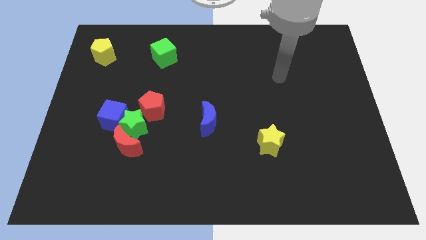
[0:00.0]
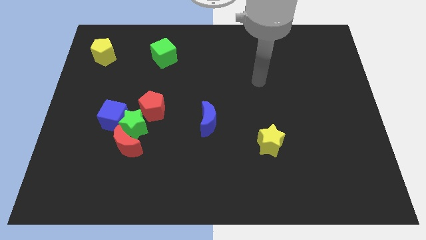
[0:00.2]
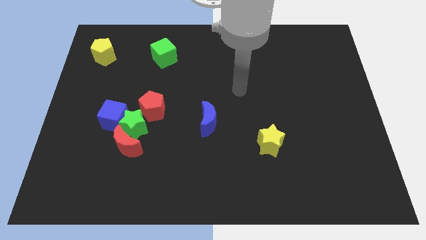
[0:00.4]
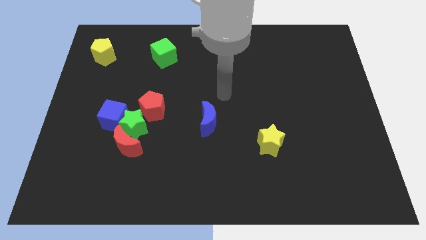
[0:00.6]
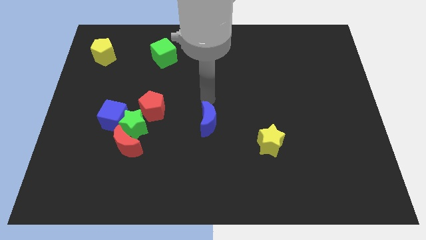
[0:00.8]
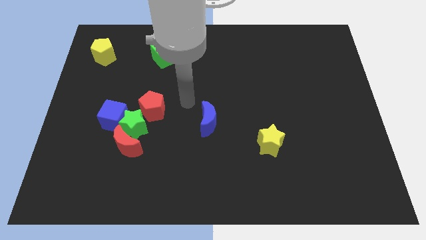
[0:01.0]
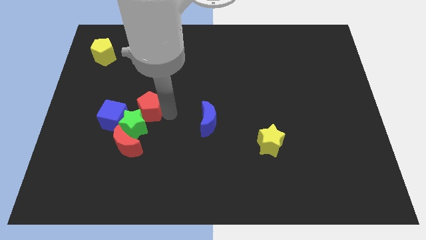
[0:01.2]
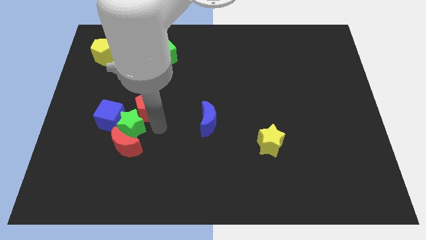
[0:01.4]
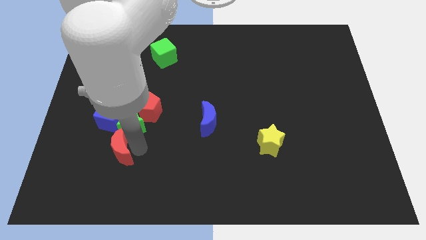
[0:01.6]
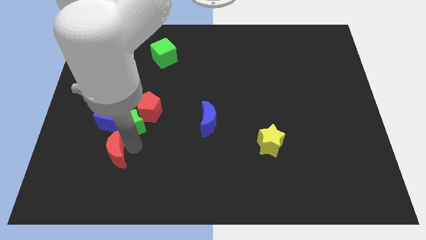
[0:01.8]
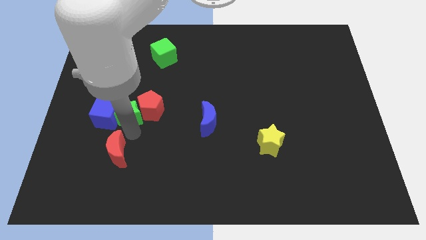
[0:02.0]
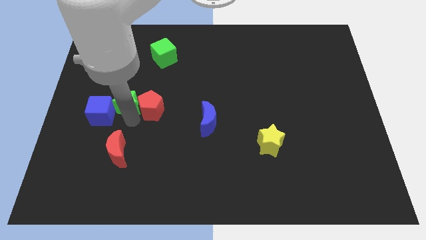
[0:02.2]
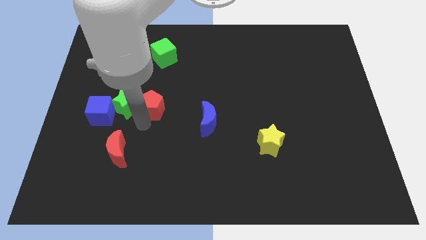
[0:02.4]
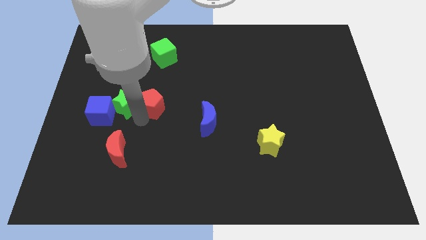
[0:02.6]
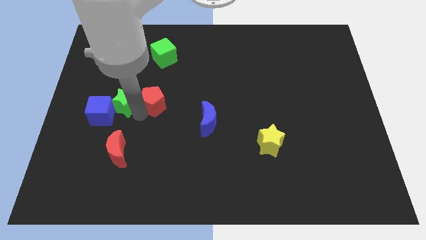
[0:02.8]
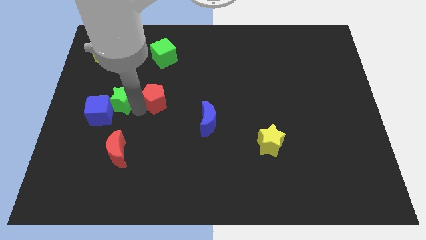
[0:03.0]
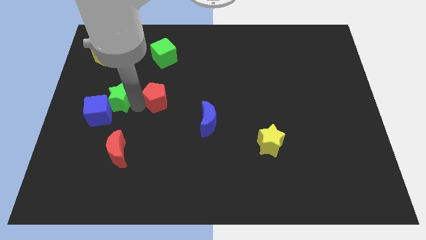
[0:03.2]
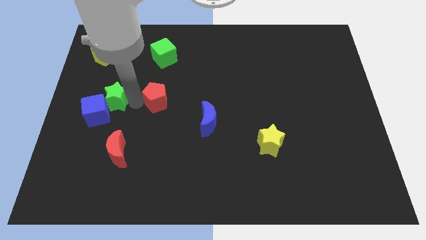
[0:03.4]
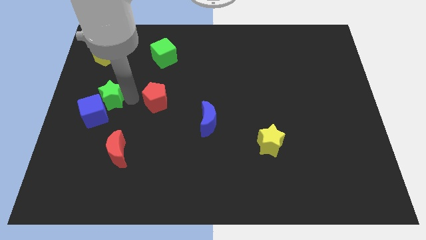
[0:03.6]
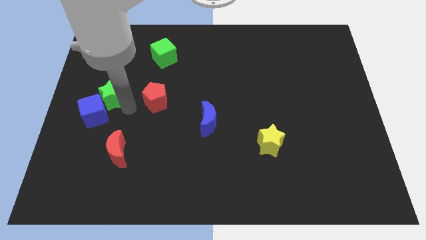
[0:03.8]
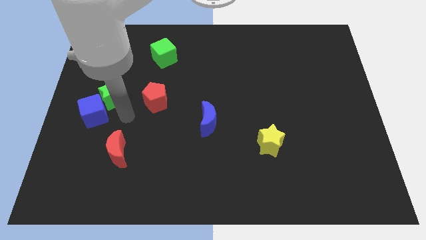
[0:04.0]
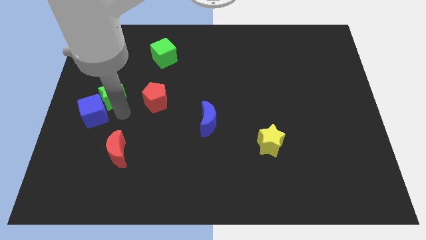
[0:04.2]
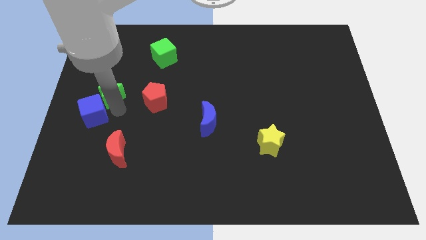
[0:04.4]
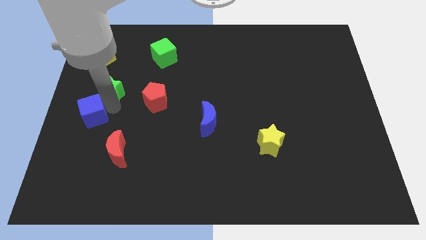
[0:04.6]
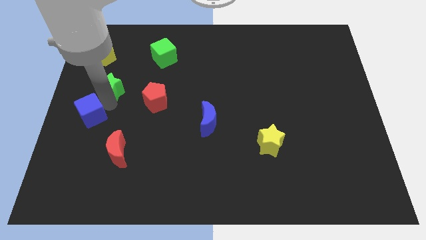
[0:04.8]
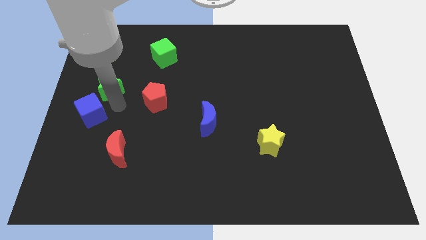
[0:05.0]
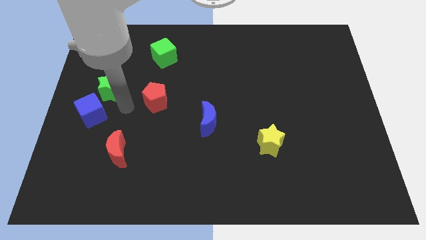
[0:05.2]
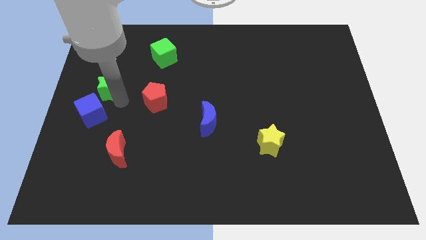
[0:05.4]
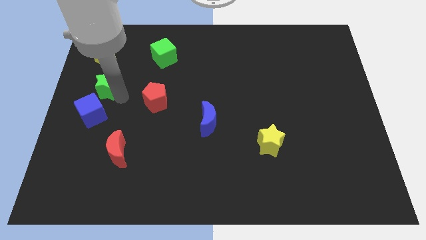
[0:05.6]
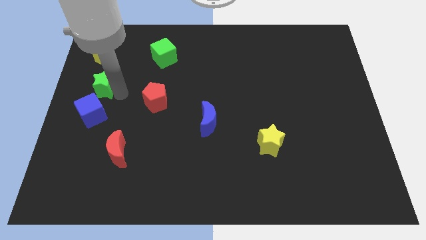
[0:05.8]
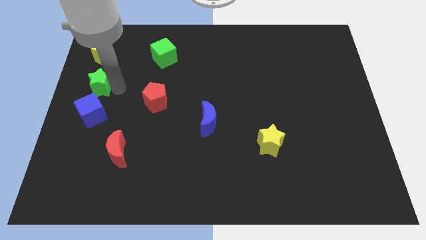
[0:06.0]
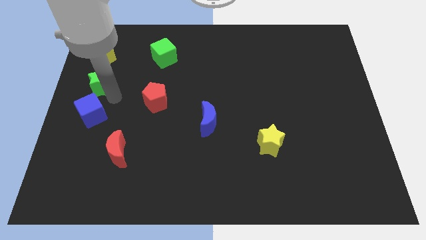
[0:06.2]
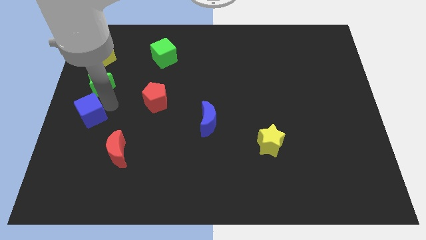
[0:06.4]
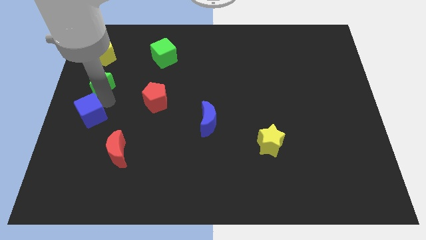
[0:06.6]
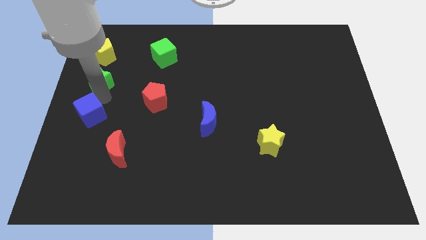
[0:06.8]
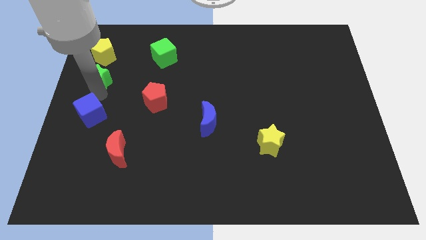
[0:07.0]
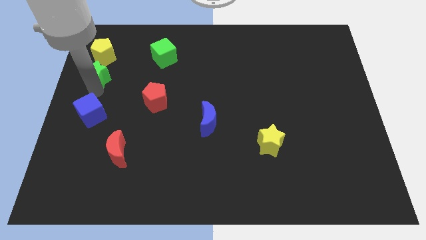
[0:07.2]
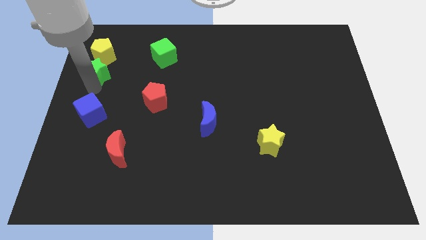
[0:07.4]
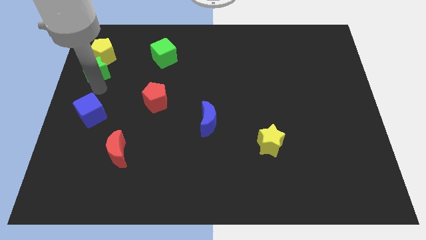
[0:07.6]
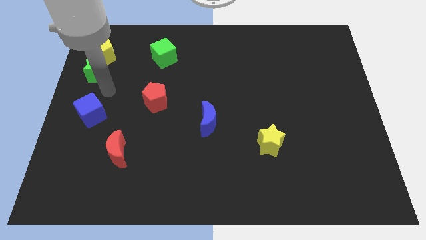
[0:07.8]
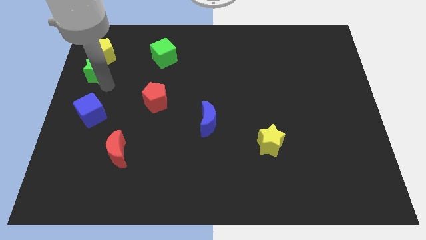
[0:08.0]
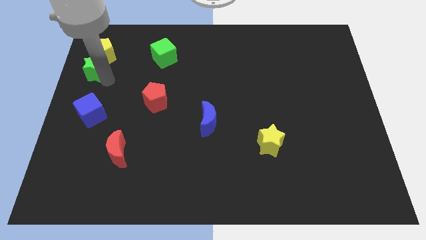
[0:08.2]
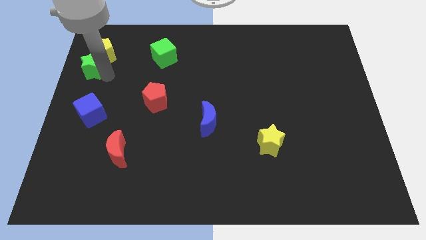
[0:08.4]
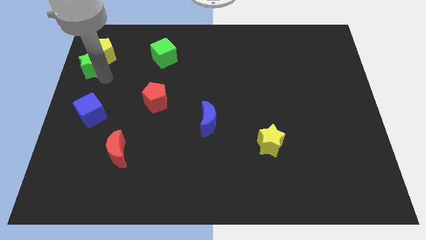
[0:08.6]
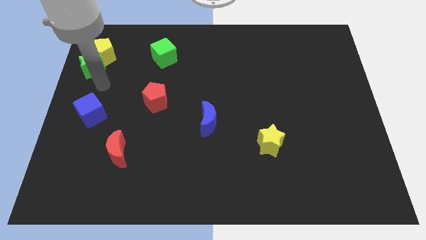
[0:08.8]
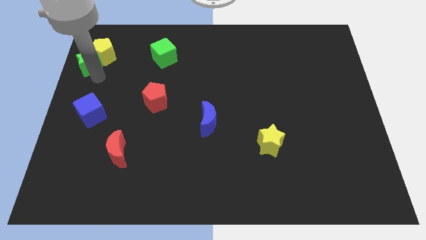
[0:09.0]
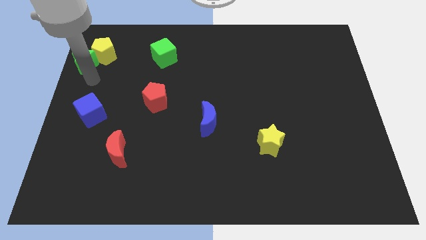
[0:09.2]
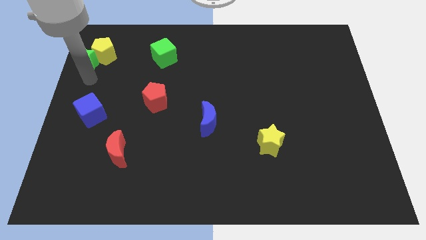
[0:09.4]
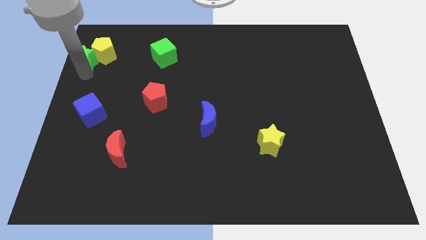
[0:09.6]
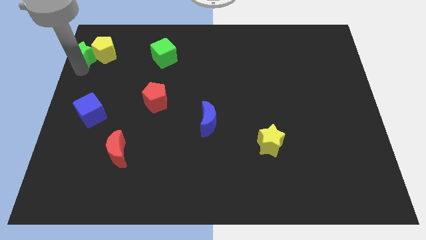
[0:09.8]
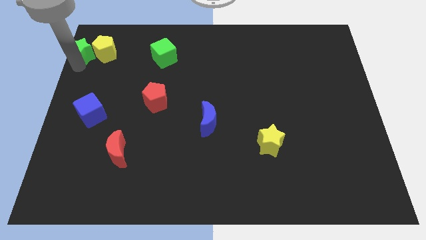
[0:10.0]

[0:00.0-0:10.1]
slide the green star to the top left corner

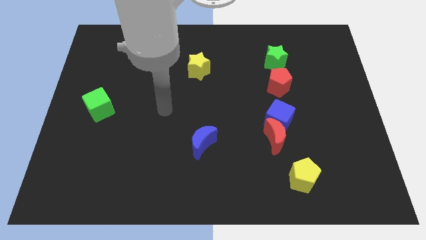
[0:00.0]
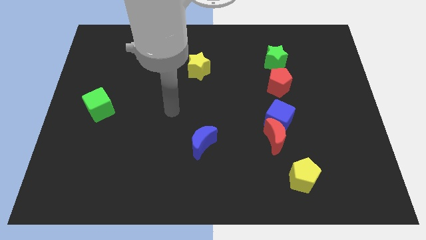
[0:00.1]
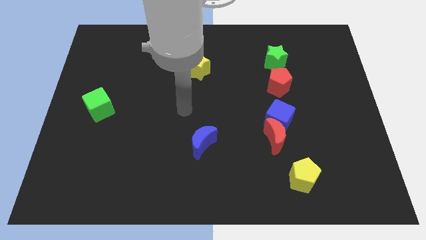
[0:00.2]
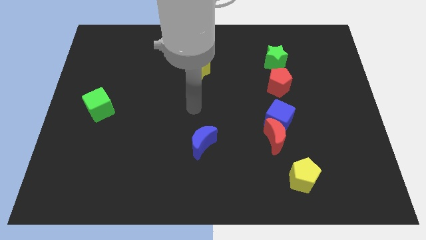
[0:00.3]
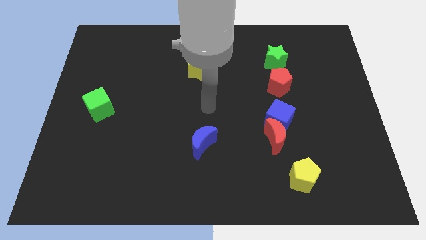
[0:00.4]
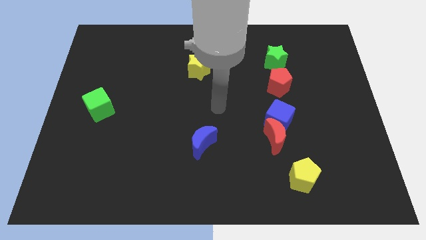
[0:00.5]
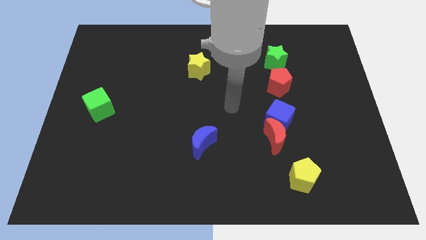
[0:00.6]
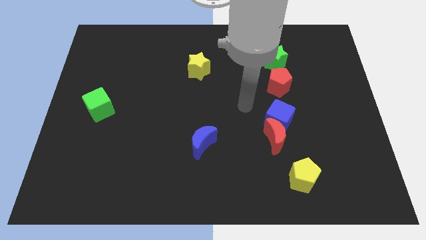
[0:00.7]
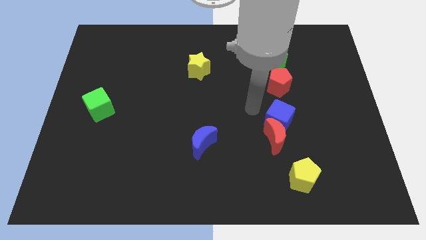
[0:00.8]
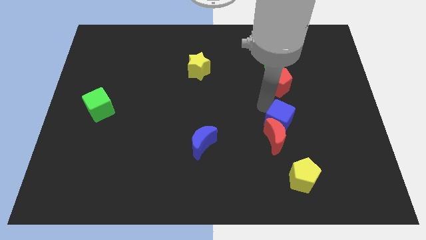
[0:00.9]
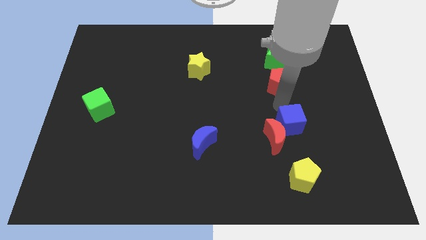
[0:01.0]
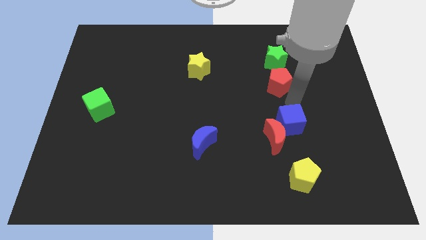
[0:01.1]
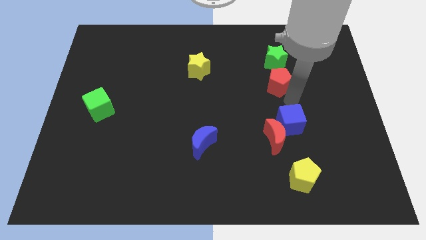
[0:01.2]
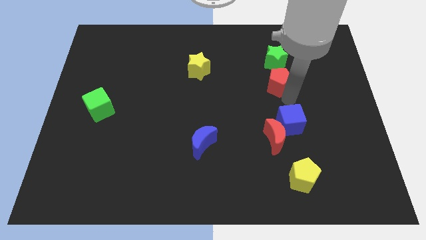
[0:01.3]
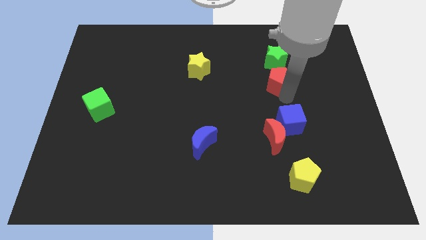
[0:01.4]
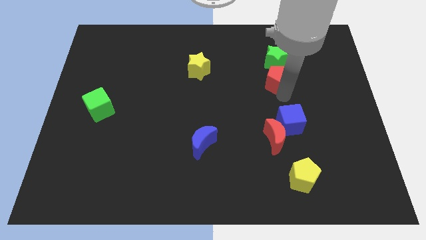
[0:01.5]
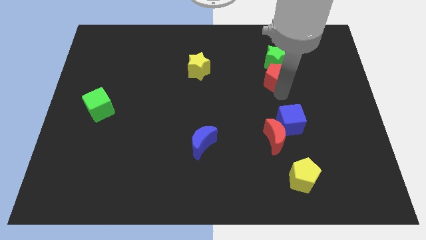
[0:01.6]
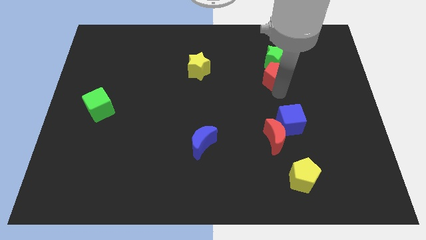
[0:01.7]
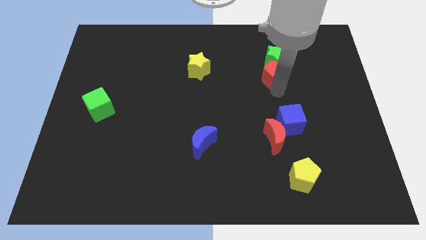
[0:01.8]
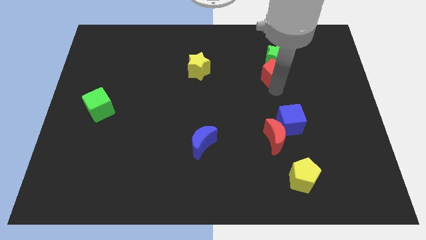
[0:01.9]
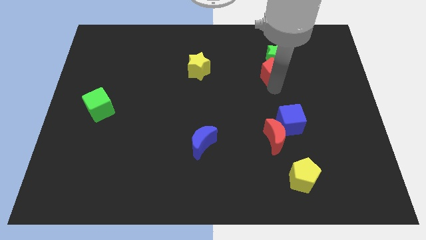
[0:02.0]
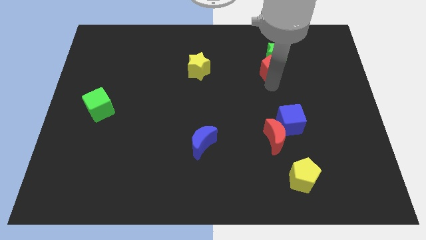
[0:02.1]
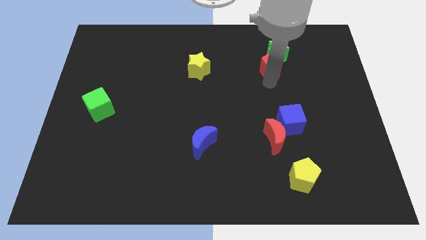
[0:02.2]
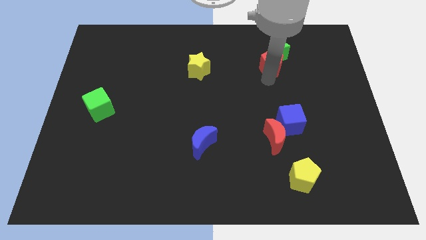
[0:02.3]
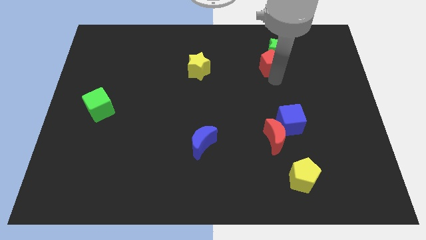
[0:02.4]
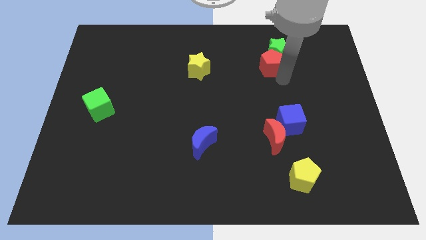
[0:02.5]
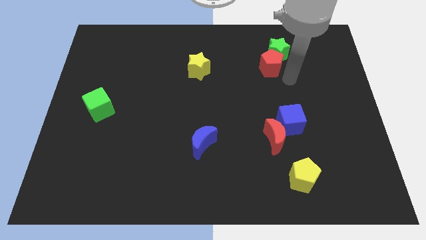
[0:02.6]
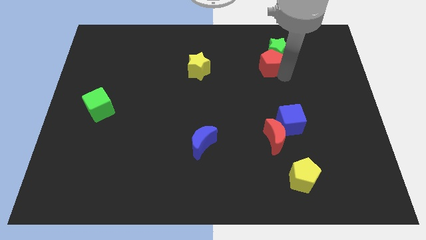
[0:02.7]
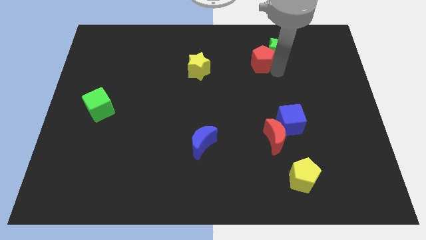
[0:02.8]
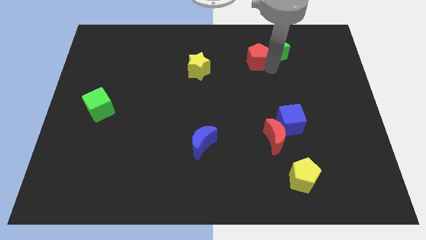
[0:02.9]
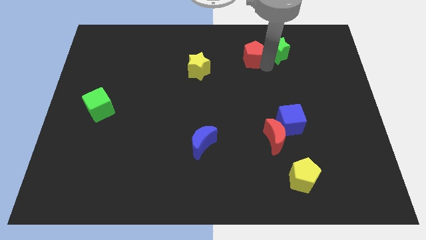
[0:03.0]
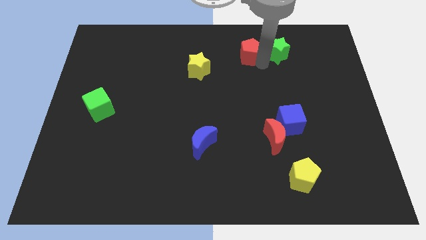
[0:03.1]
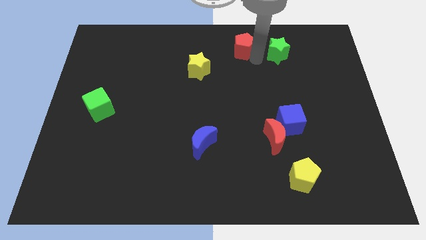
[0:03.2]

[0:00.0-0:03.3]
put the red pentagon to the top
